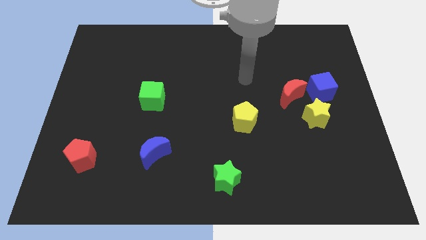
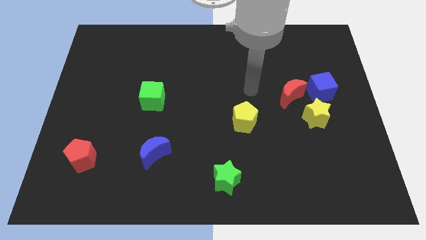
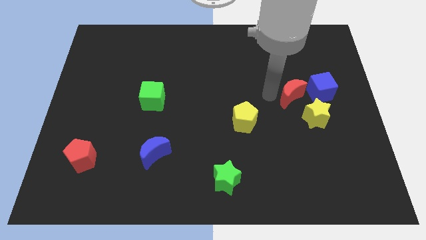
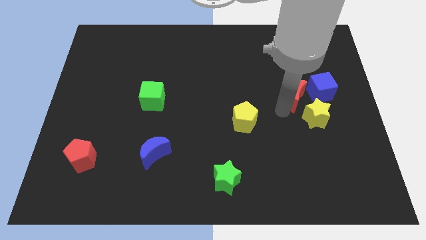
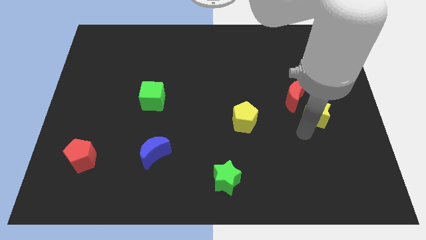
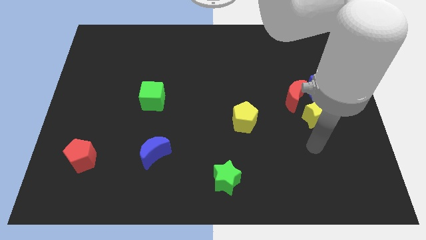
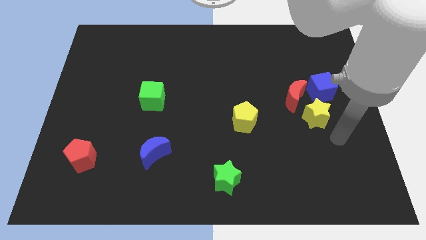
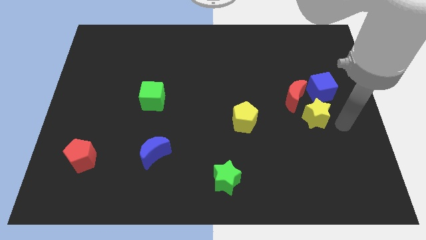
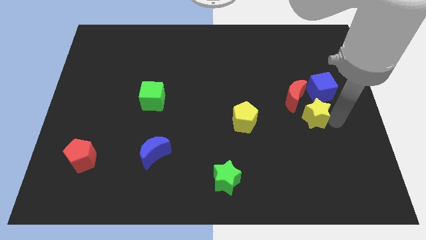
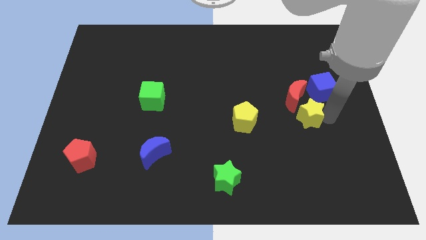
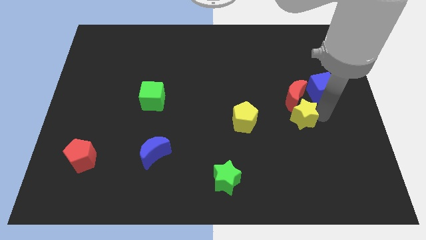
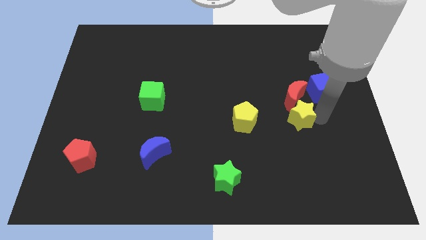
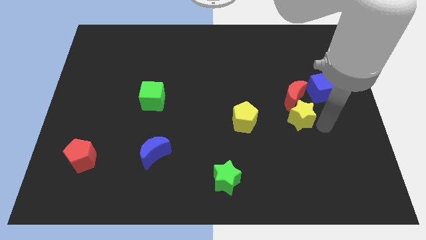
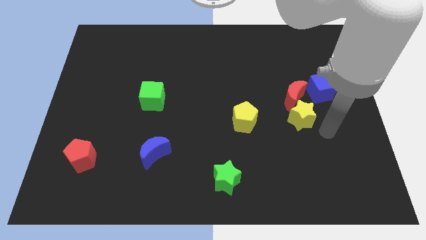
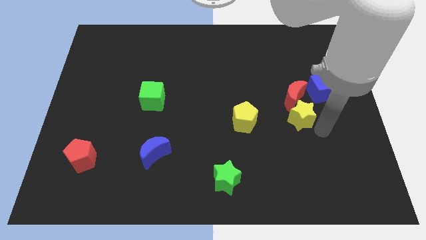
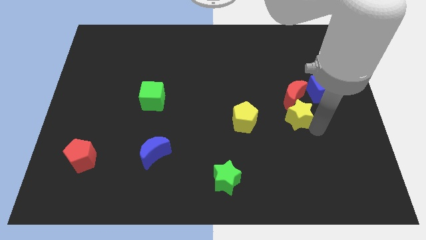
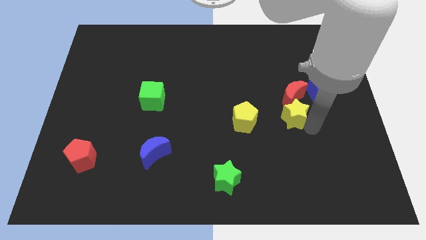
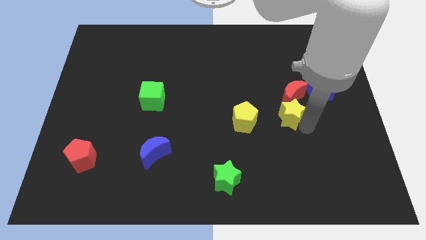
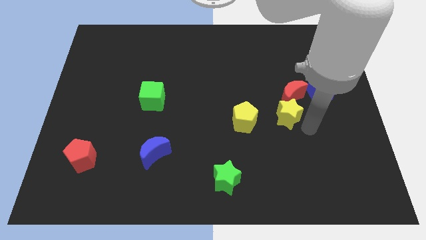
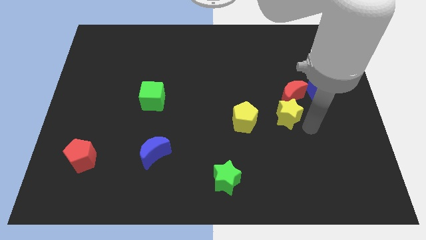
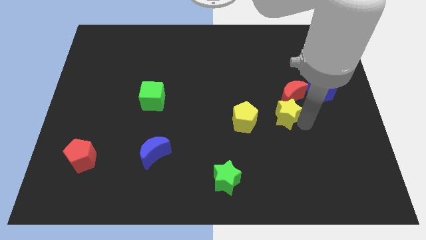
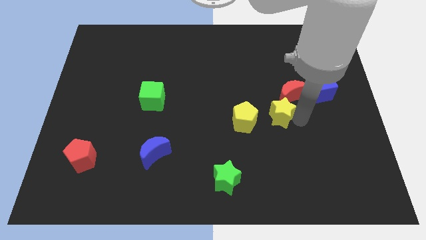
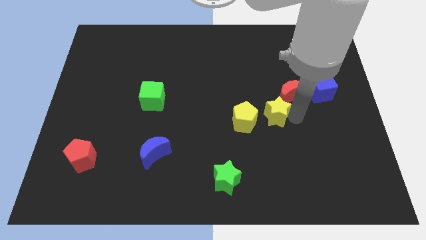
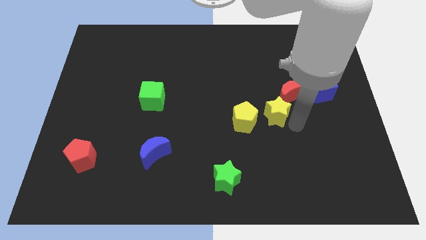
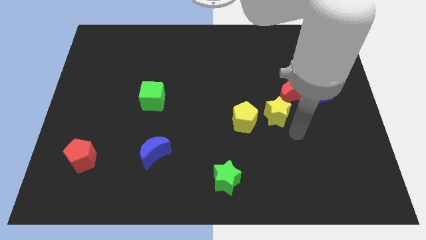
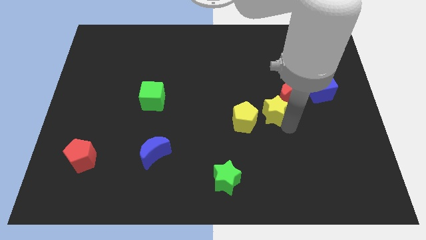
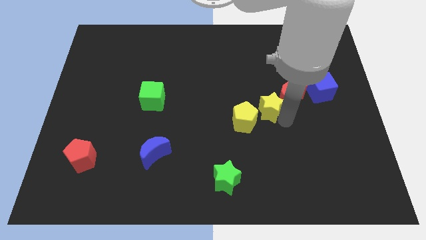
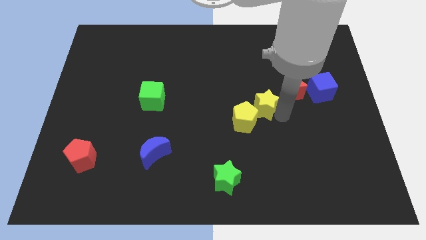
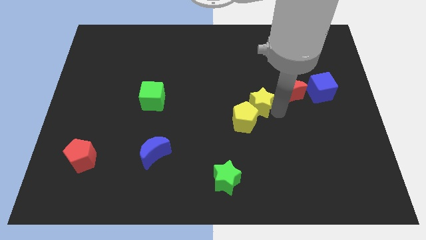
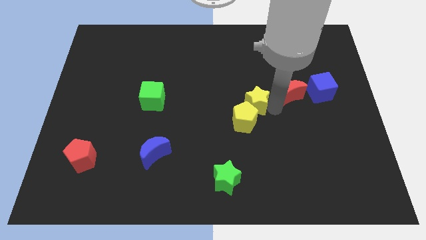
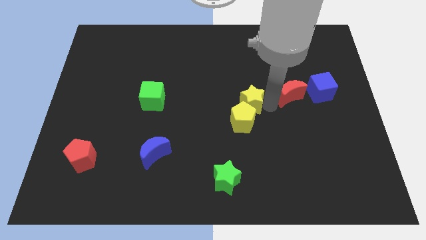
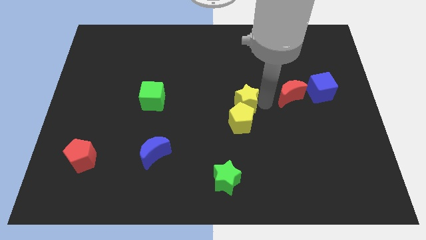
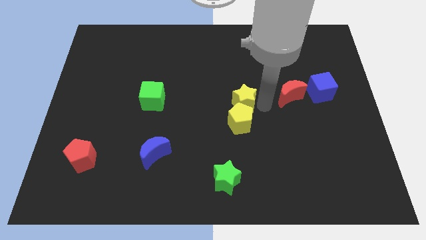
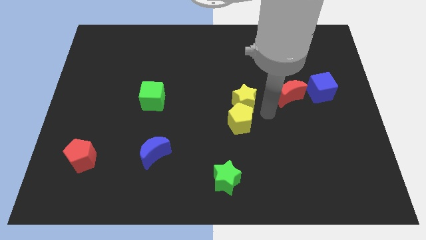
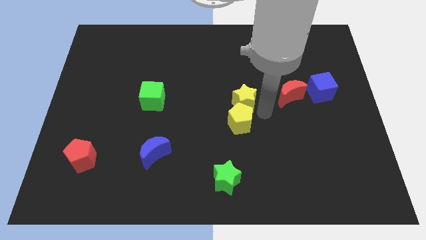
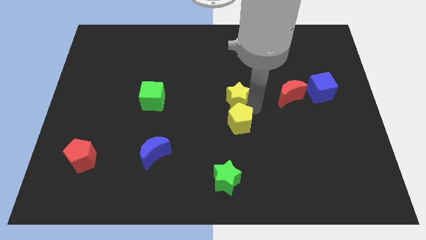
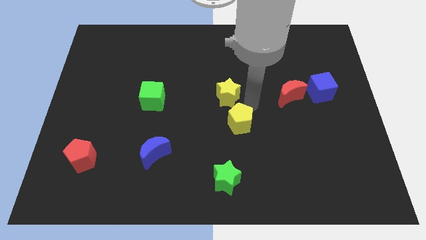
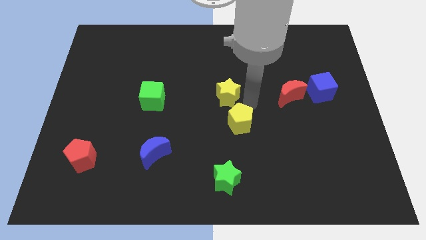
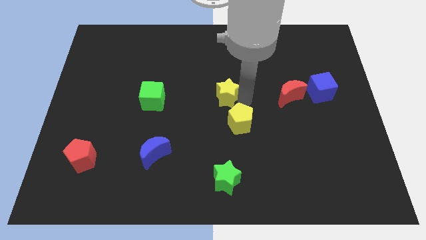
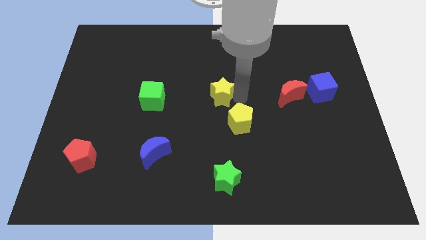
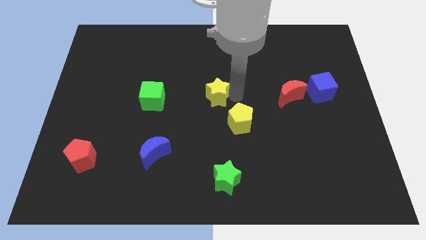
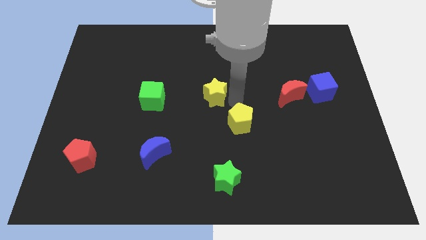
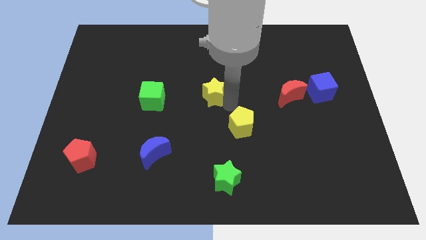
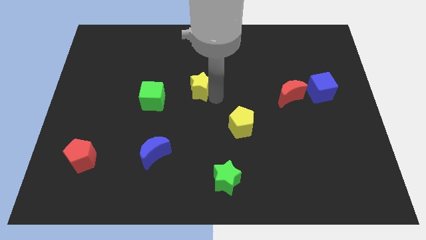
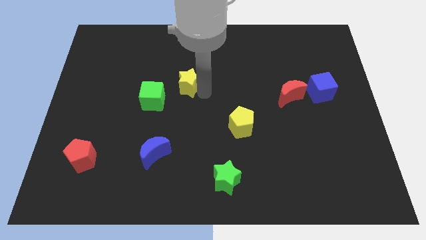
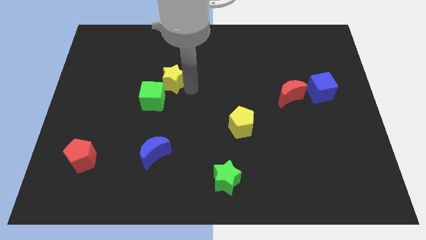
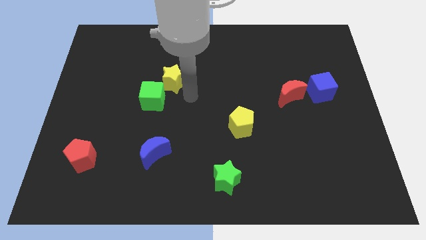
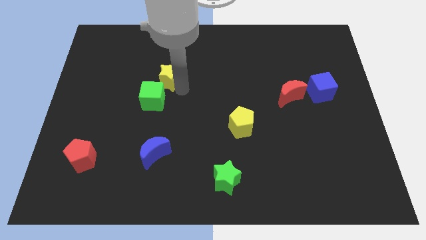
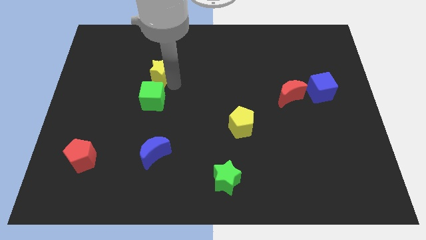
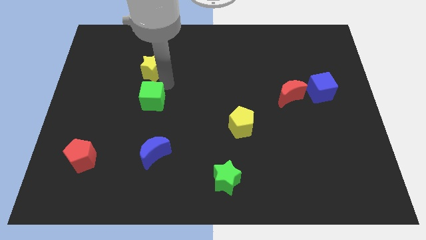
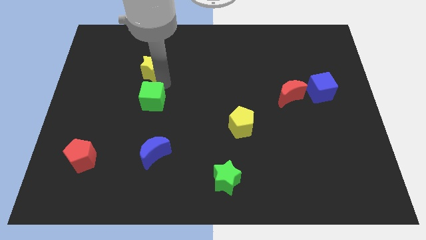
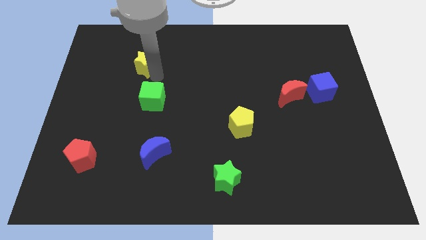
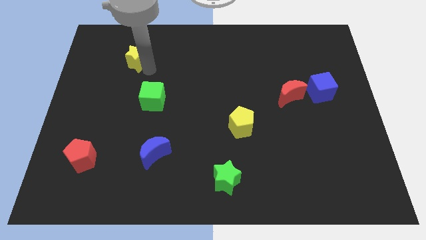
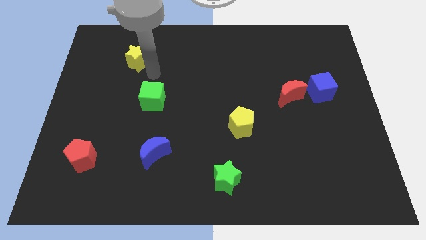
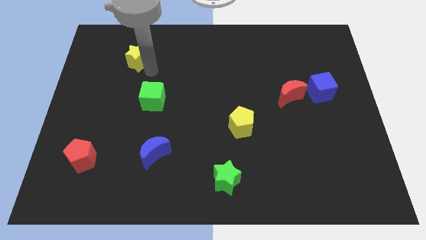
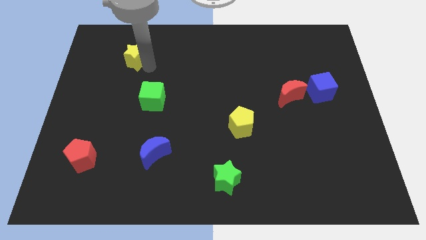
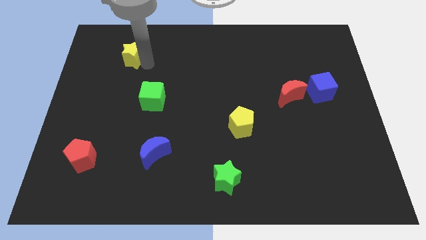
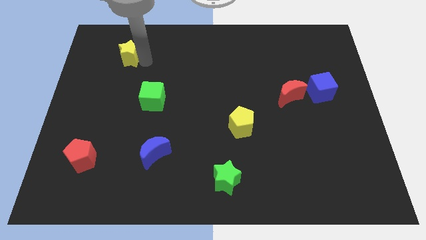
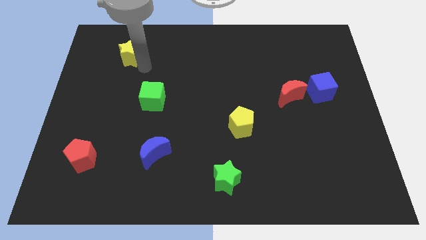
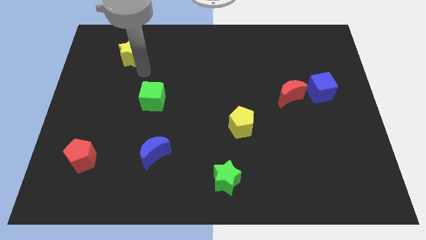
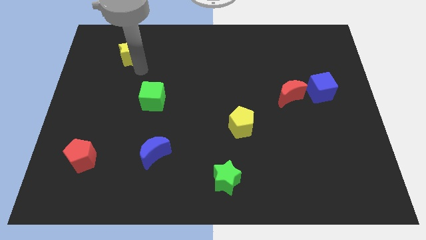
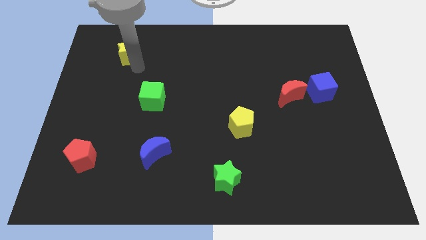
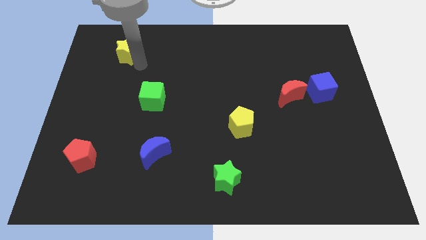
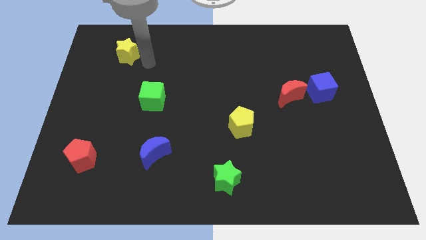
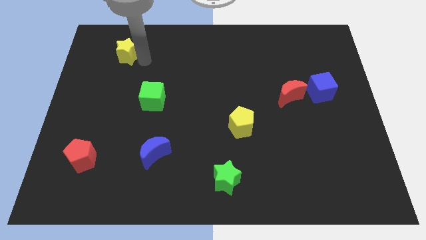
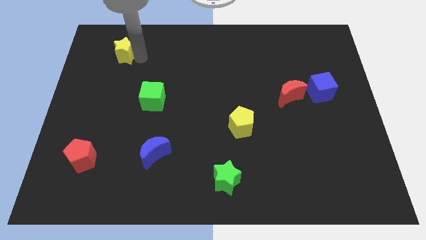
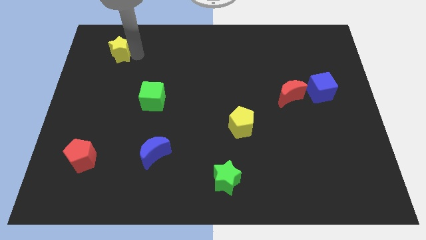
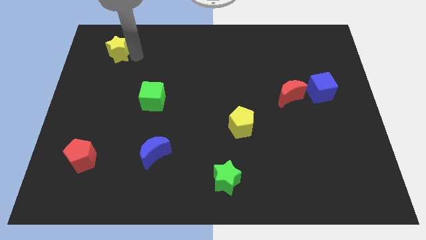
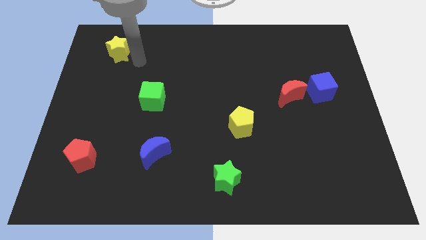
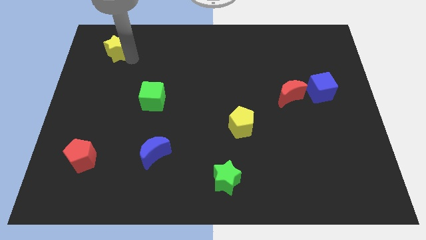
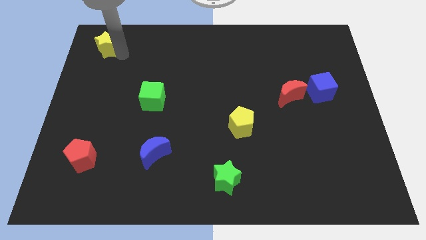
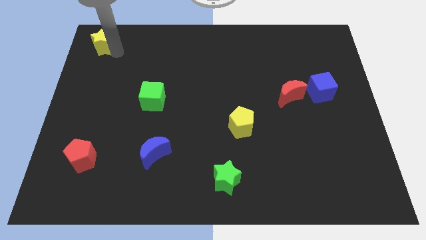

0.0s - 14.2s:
slide the yellow star to the top left of the board
